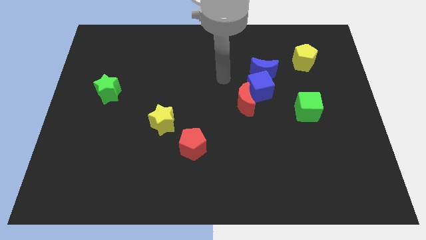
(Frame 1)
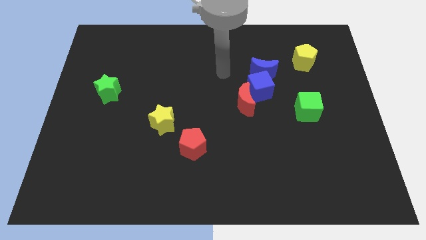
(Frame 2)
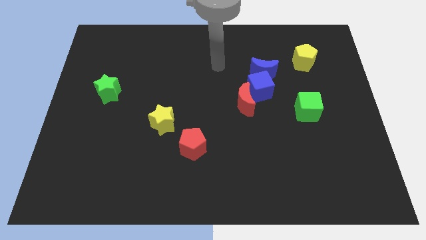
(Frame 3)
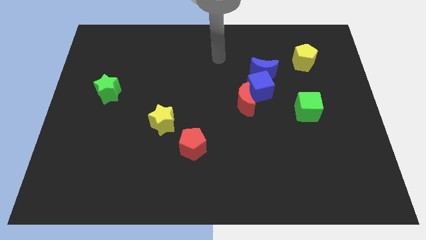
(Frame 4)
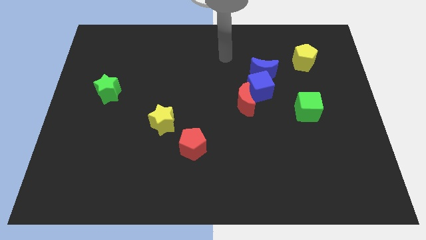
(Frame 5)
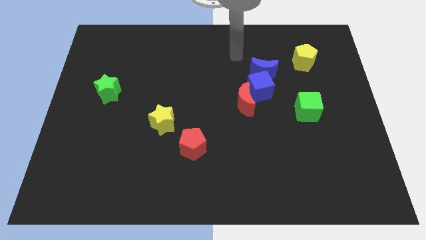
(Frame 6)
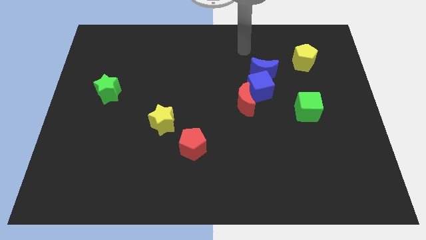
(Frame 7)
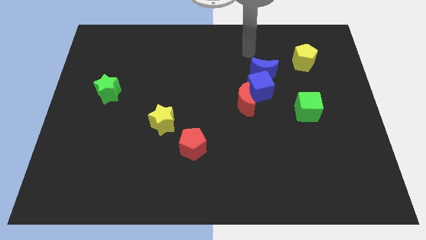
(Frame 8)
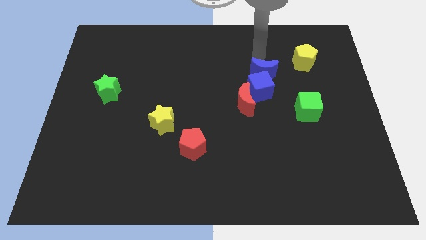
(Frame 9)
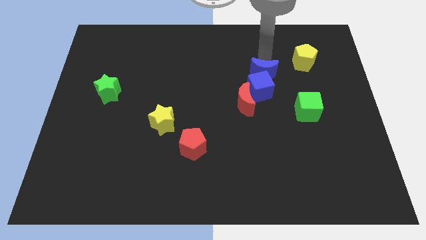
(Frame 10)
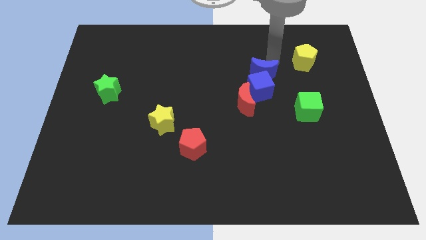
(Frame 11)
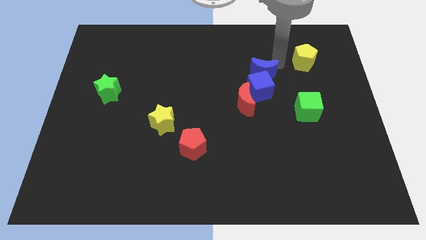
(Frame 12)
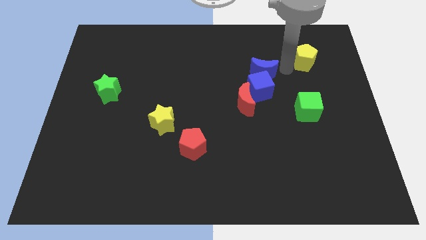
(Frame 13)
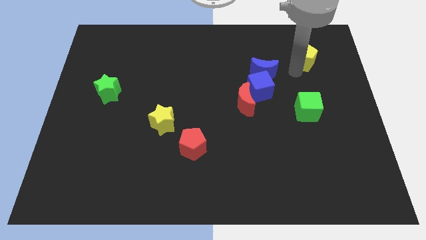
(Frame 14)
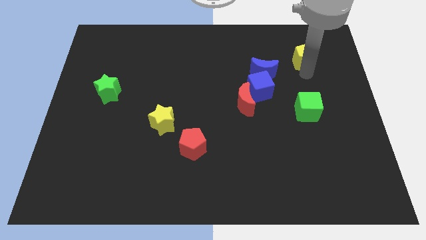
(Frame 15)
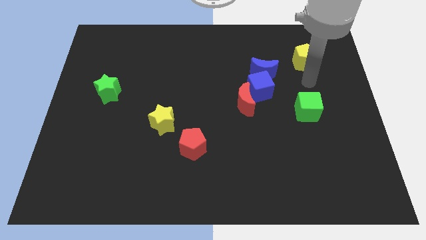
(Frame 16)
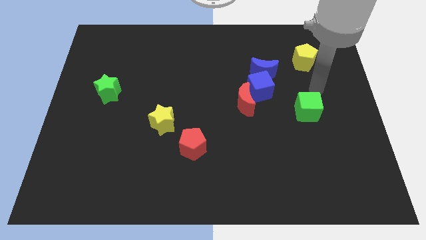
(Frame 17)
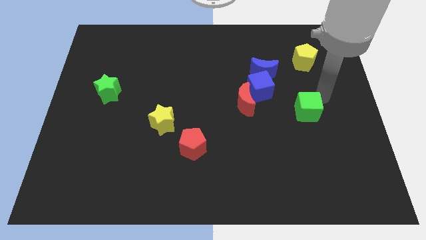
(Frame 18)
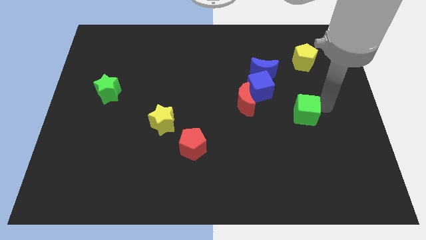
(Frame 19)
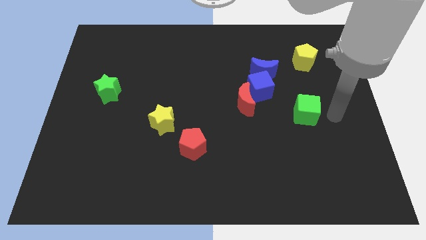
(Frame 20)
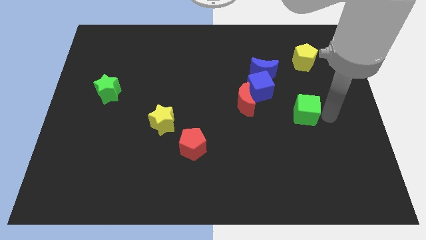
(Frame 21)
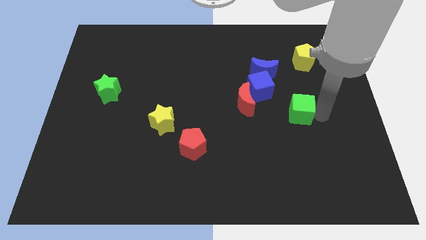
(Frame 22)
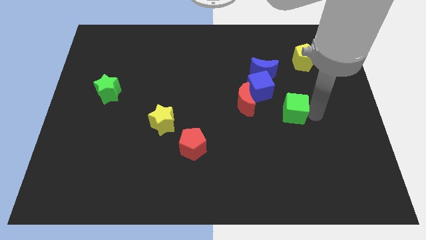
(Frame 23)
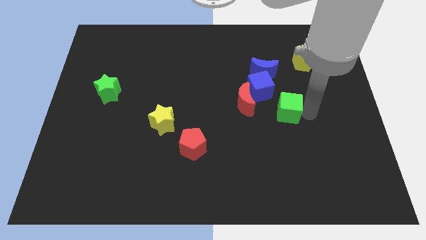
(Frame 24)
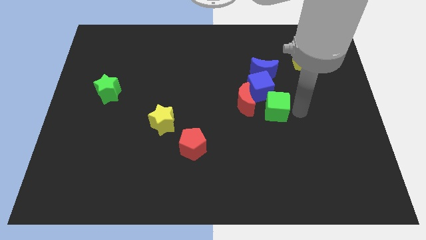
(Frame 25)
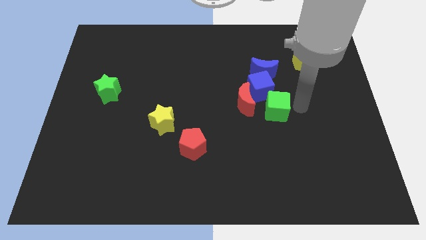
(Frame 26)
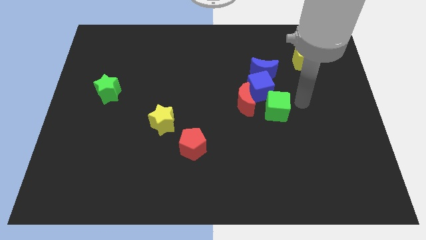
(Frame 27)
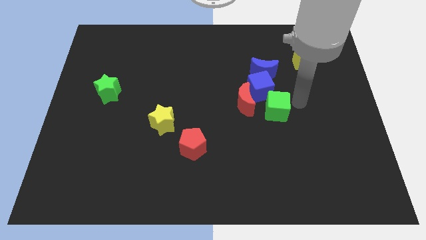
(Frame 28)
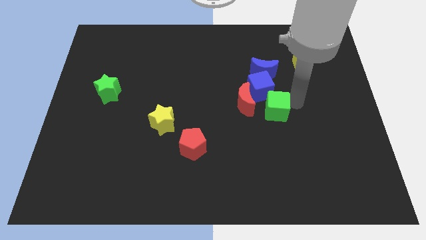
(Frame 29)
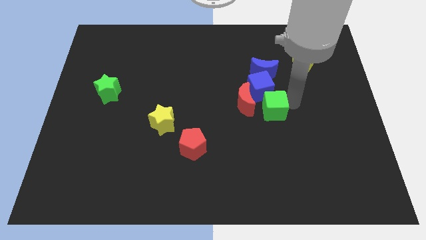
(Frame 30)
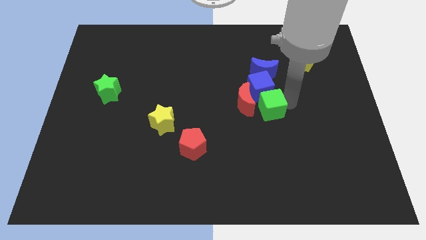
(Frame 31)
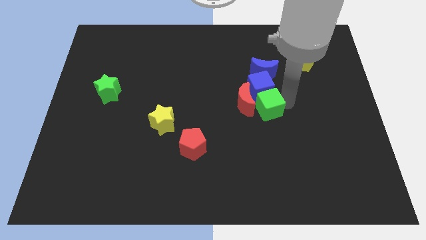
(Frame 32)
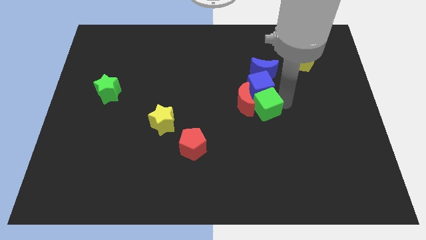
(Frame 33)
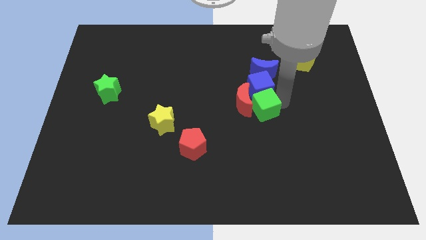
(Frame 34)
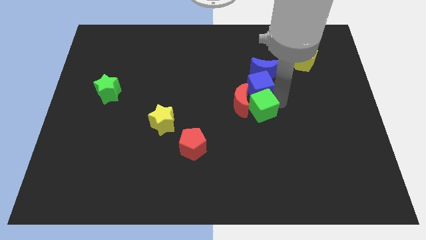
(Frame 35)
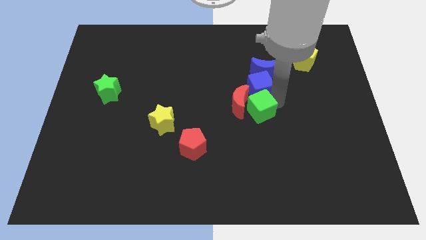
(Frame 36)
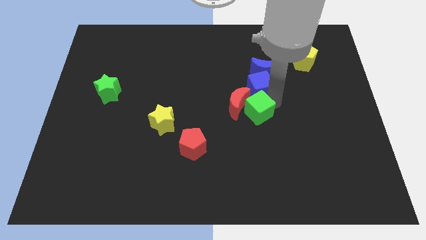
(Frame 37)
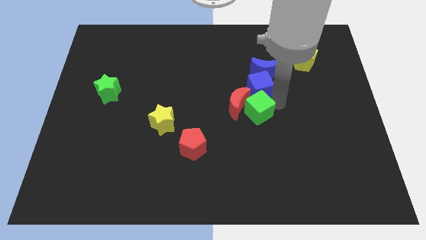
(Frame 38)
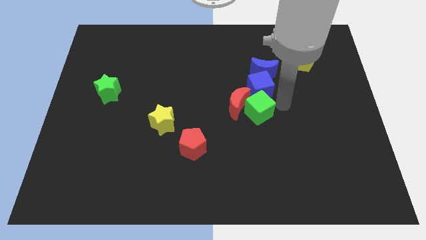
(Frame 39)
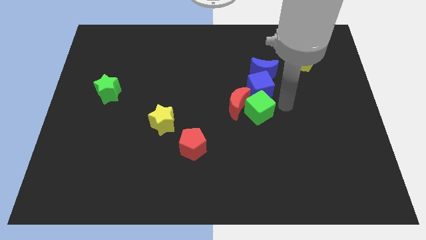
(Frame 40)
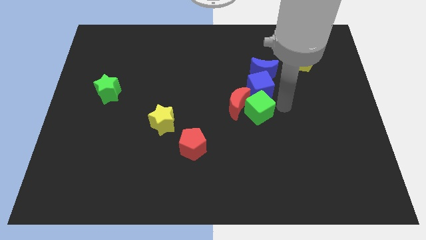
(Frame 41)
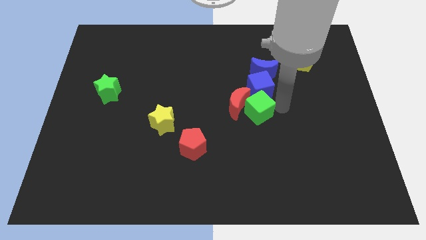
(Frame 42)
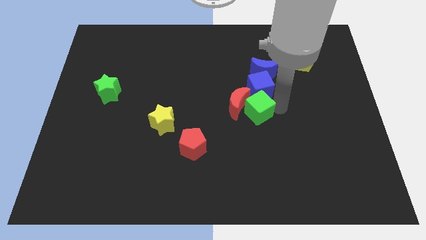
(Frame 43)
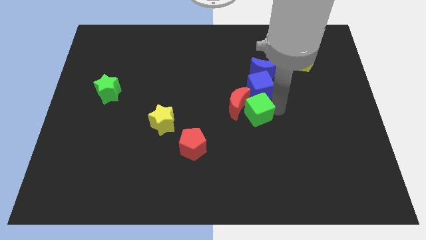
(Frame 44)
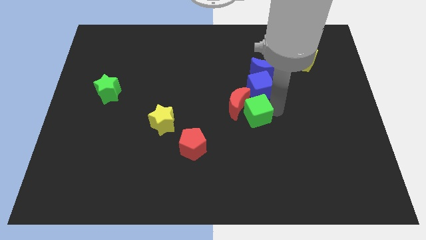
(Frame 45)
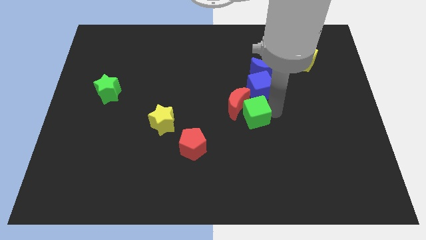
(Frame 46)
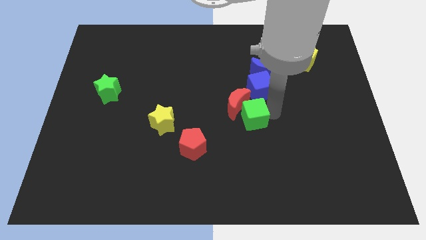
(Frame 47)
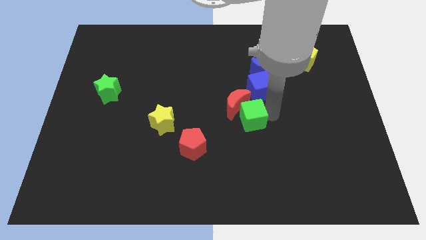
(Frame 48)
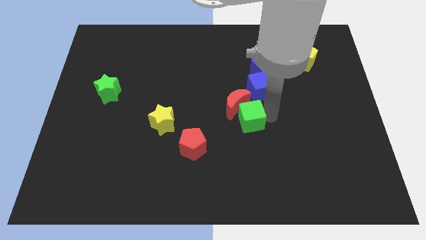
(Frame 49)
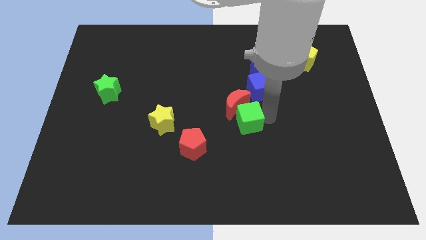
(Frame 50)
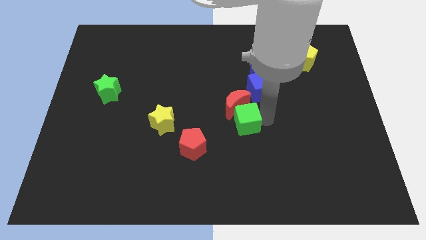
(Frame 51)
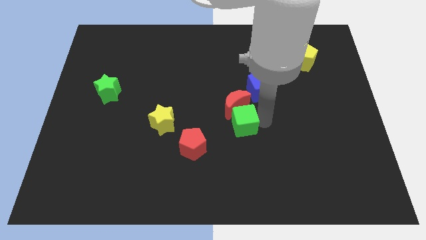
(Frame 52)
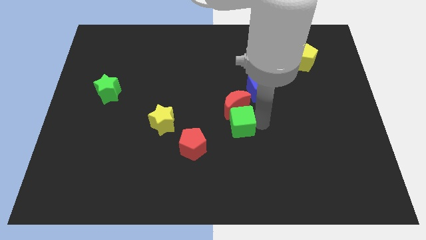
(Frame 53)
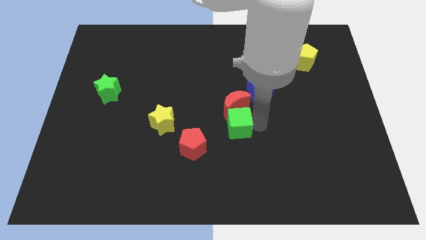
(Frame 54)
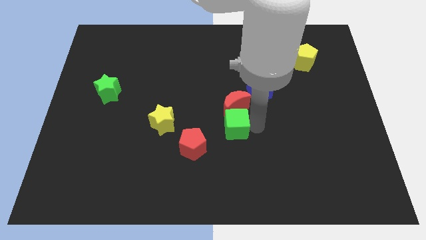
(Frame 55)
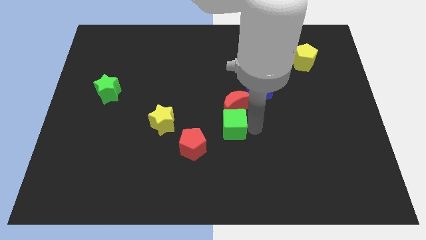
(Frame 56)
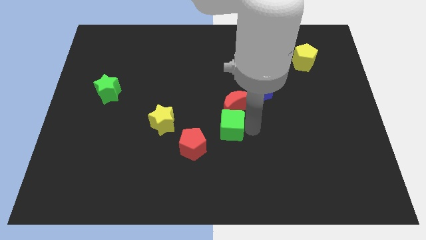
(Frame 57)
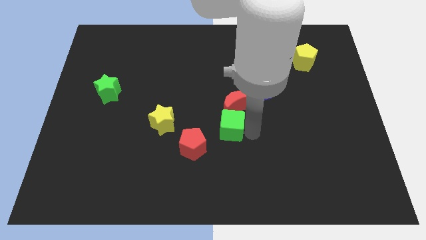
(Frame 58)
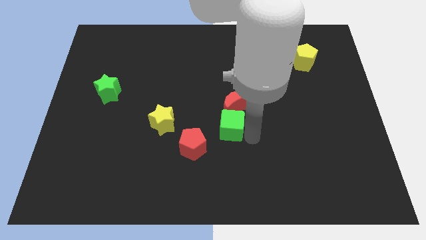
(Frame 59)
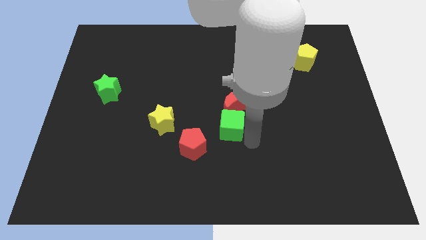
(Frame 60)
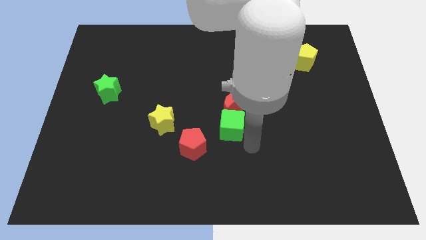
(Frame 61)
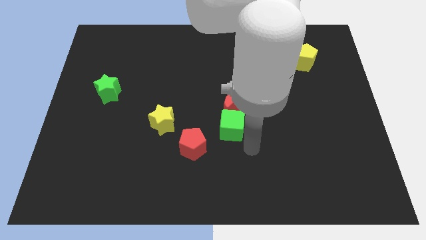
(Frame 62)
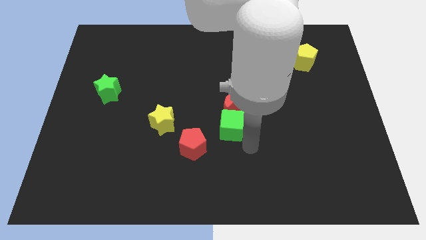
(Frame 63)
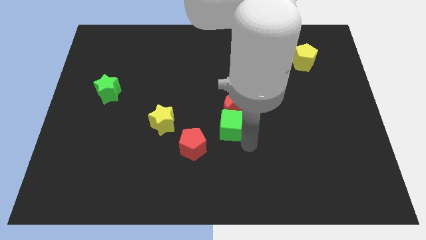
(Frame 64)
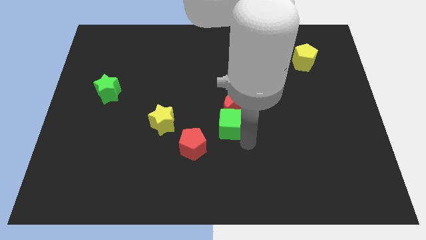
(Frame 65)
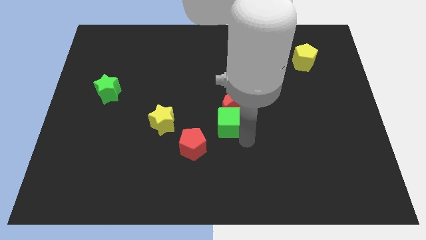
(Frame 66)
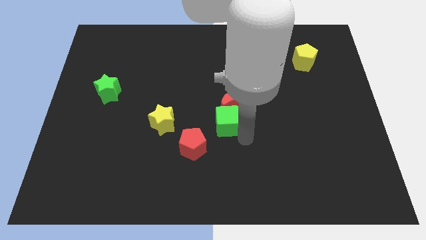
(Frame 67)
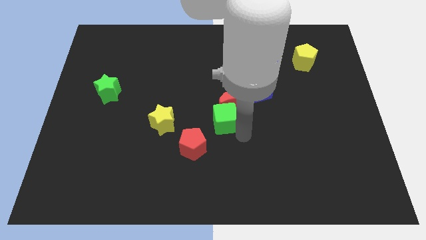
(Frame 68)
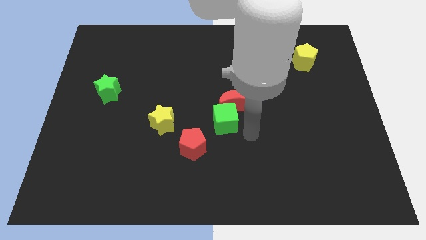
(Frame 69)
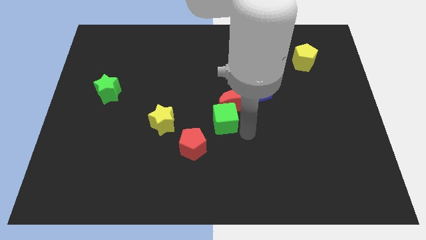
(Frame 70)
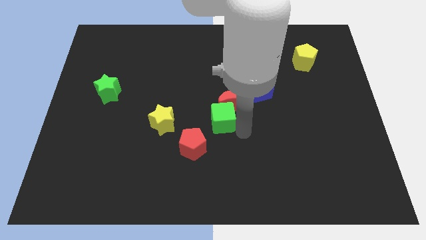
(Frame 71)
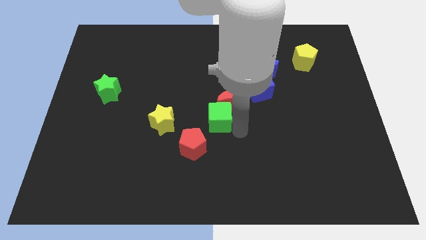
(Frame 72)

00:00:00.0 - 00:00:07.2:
push the green cube to the left

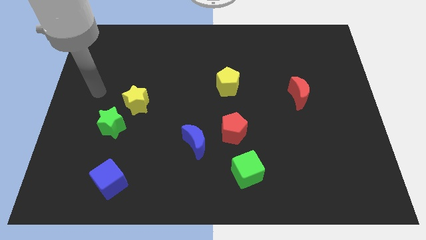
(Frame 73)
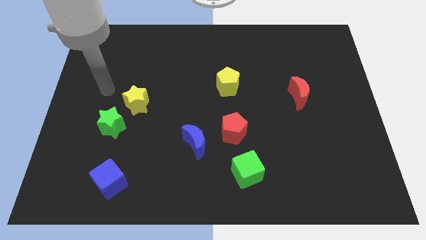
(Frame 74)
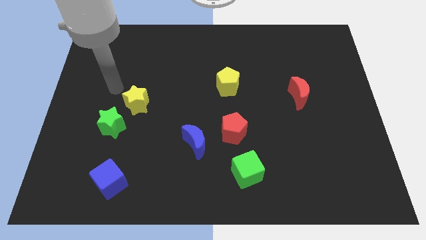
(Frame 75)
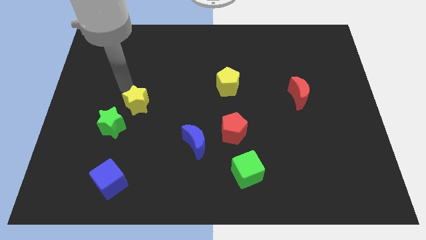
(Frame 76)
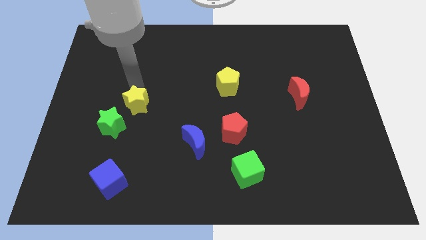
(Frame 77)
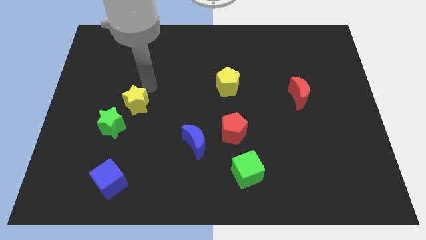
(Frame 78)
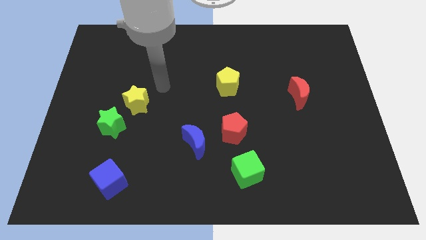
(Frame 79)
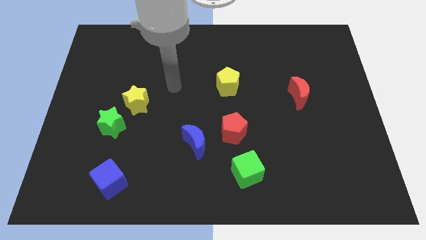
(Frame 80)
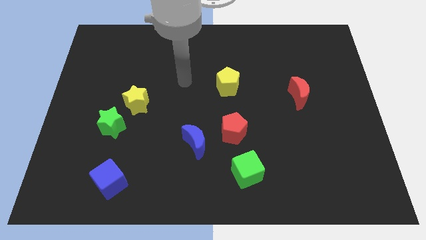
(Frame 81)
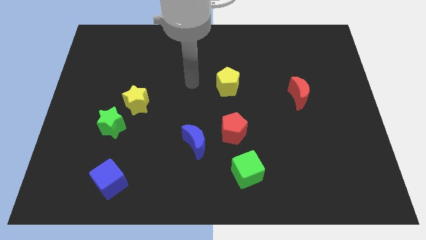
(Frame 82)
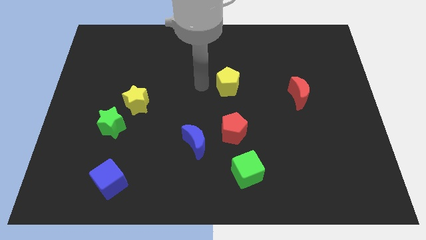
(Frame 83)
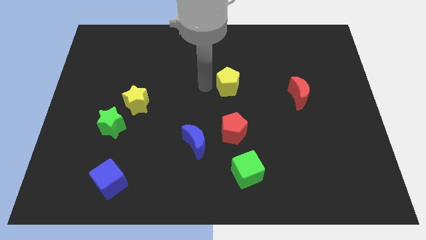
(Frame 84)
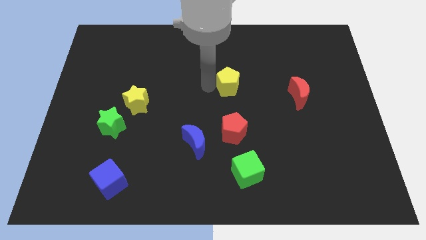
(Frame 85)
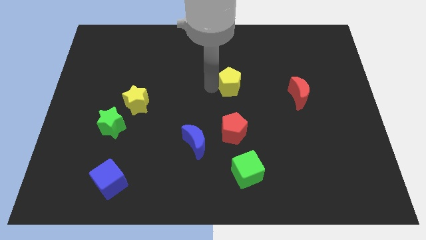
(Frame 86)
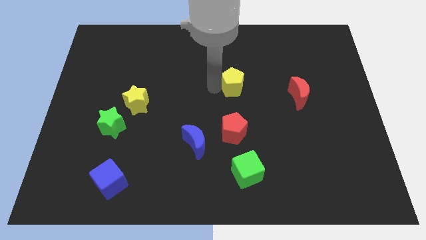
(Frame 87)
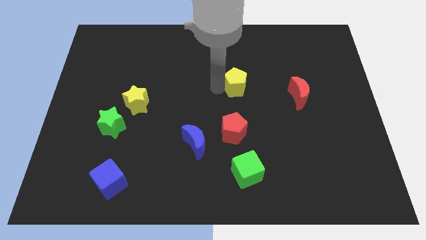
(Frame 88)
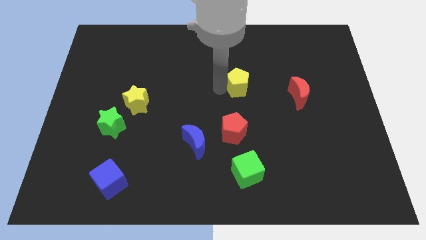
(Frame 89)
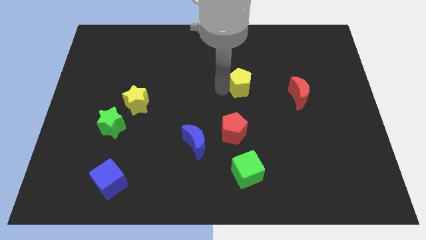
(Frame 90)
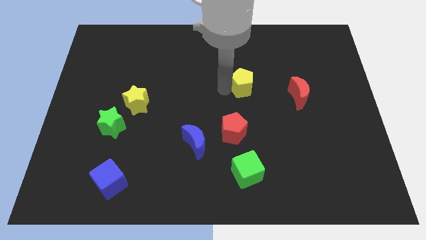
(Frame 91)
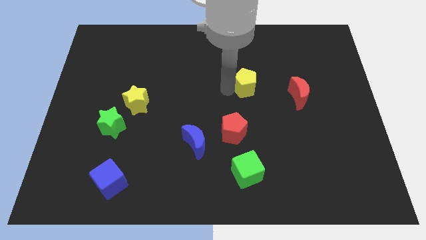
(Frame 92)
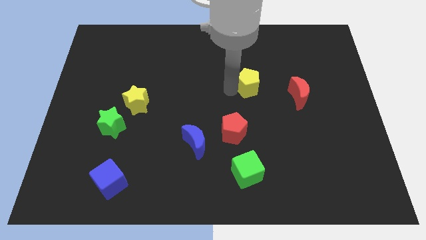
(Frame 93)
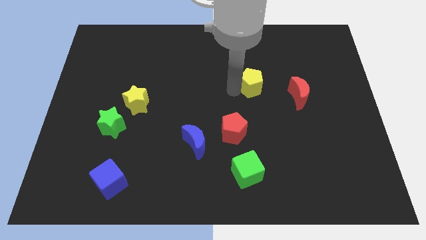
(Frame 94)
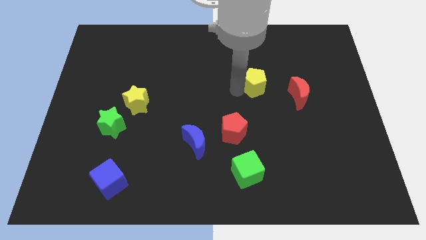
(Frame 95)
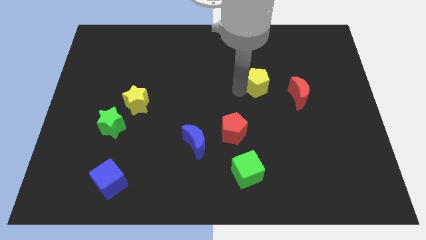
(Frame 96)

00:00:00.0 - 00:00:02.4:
push the yellow pentagon slightly to the right
